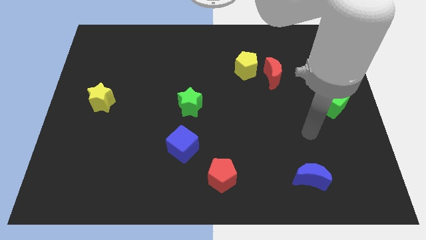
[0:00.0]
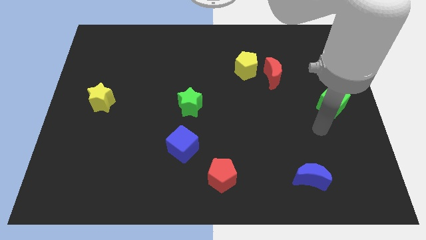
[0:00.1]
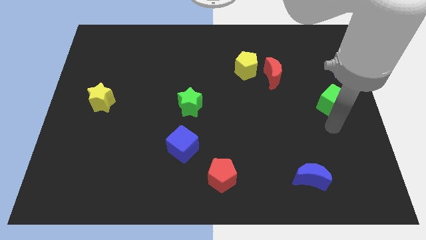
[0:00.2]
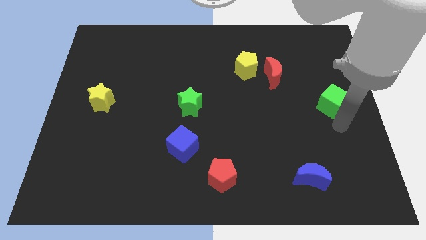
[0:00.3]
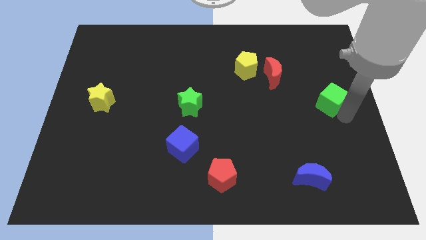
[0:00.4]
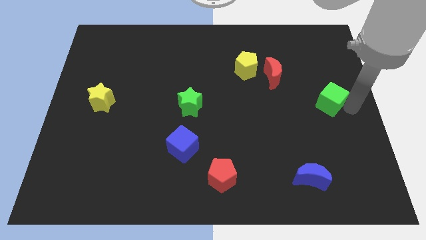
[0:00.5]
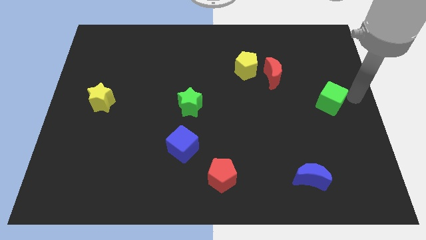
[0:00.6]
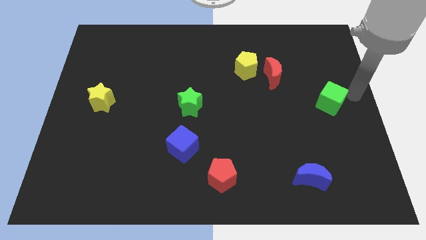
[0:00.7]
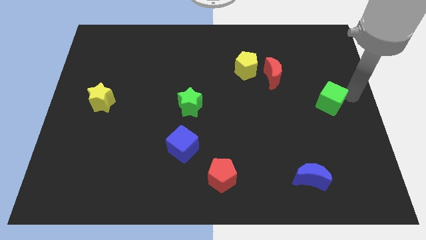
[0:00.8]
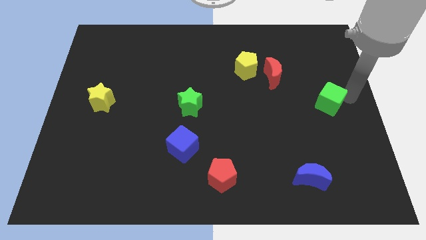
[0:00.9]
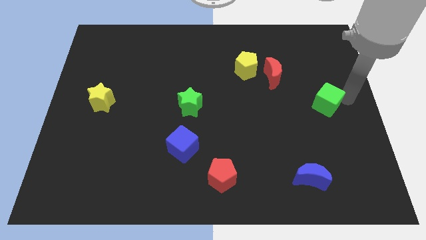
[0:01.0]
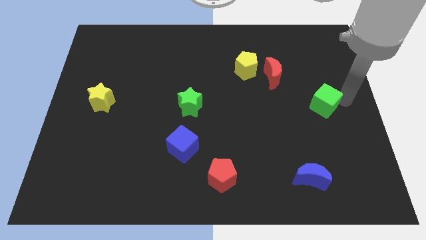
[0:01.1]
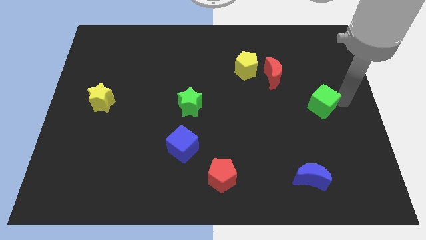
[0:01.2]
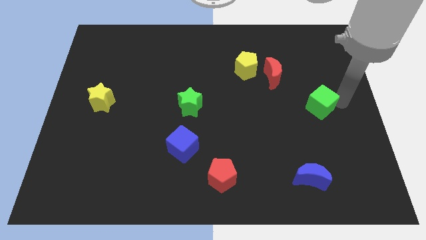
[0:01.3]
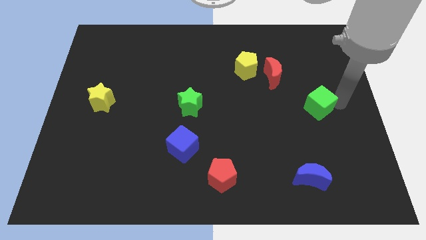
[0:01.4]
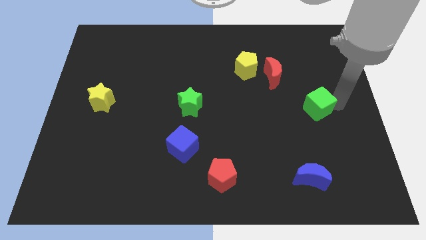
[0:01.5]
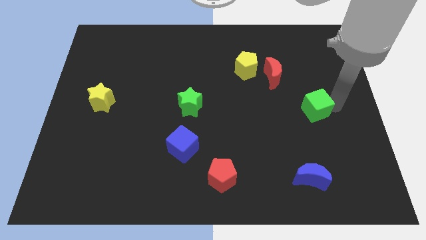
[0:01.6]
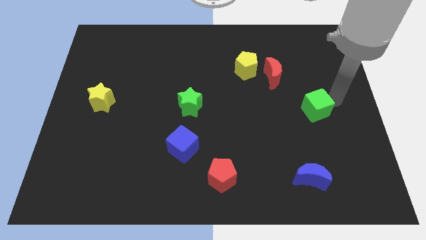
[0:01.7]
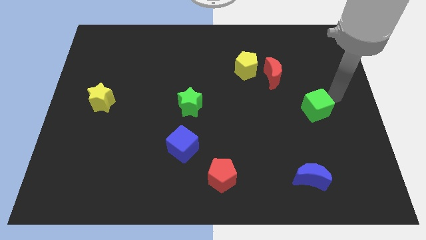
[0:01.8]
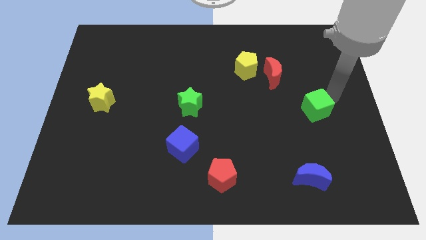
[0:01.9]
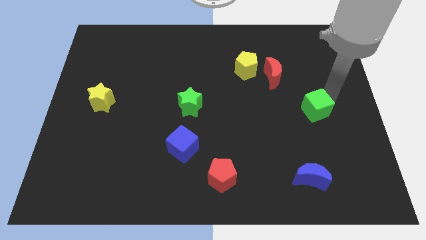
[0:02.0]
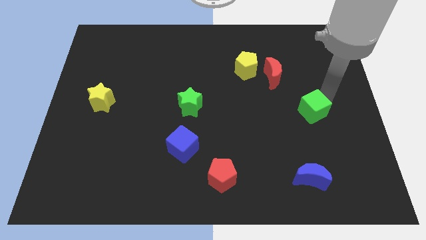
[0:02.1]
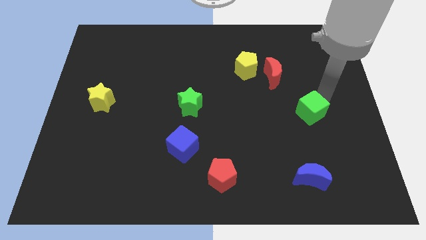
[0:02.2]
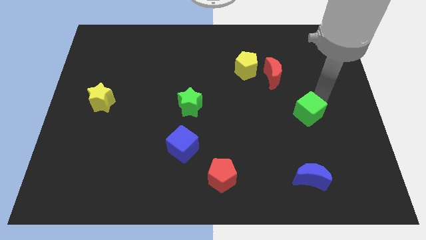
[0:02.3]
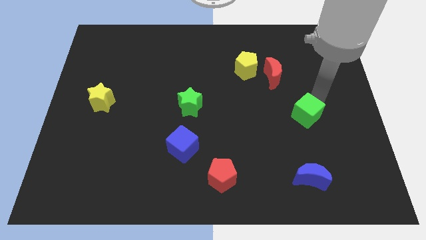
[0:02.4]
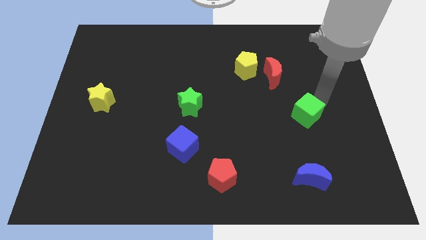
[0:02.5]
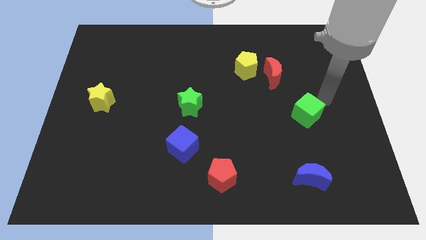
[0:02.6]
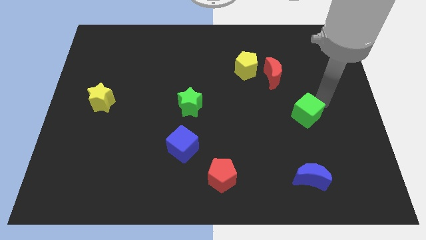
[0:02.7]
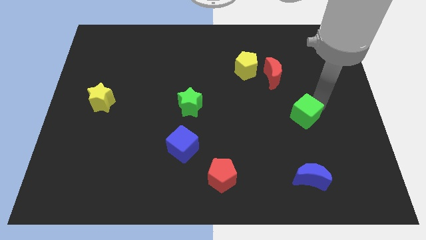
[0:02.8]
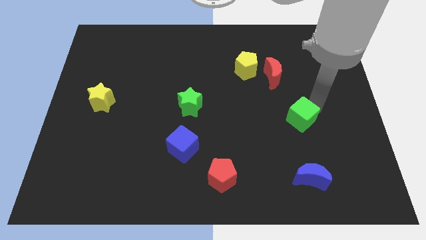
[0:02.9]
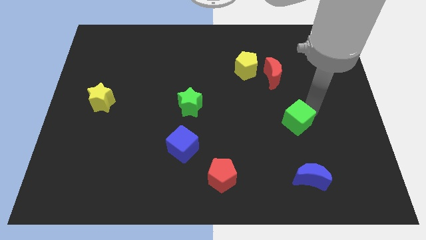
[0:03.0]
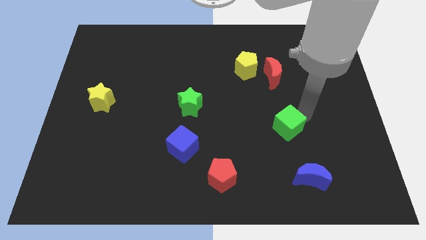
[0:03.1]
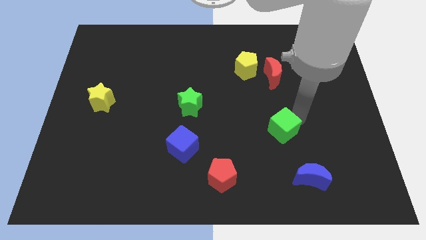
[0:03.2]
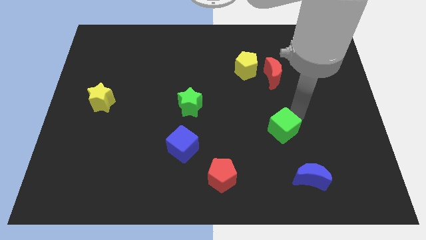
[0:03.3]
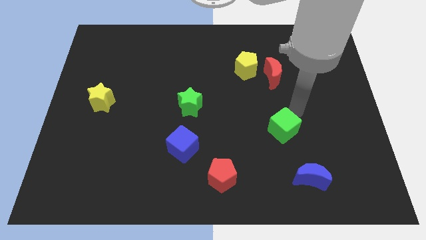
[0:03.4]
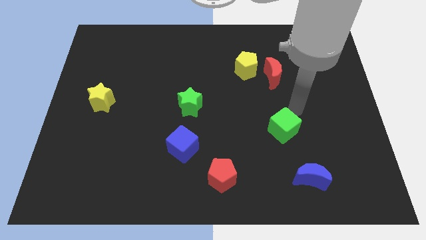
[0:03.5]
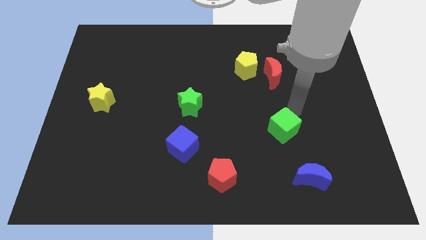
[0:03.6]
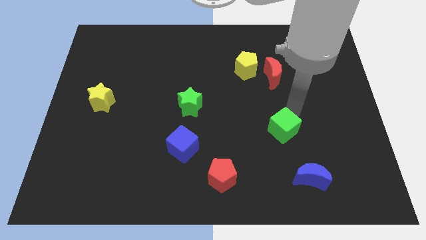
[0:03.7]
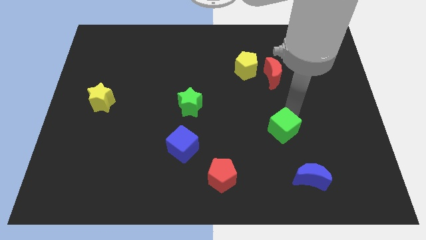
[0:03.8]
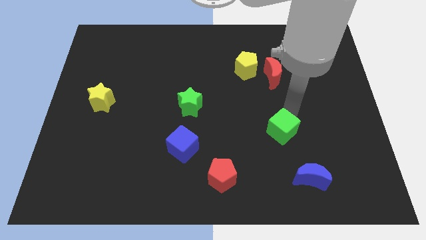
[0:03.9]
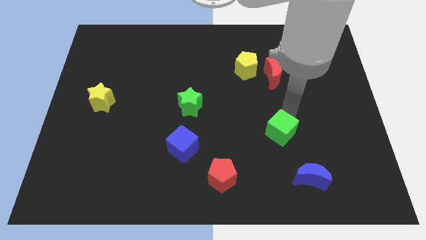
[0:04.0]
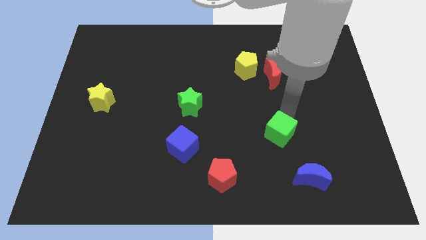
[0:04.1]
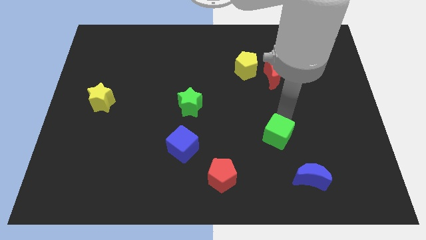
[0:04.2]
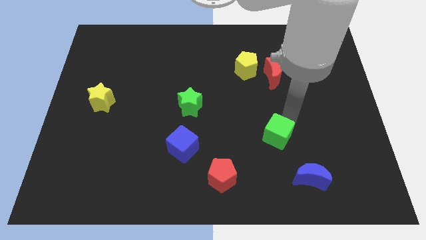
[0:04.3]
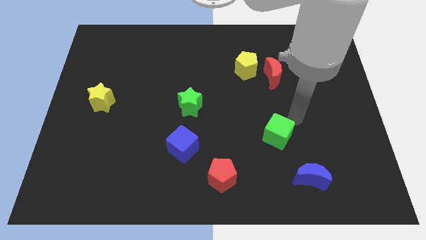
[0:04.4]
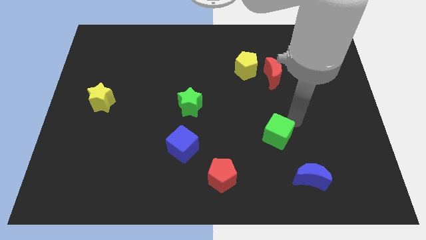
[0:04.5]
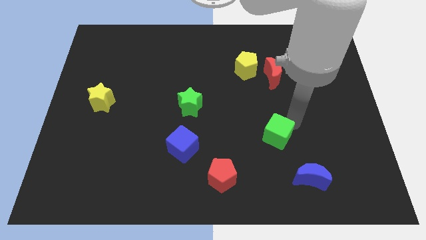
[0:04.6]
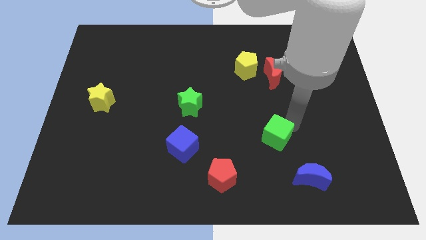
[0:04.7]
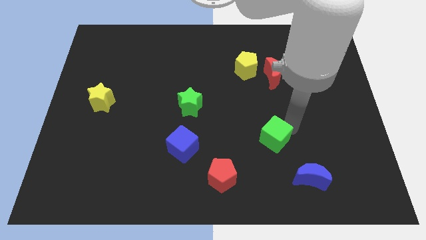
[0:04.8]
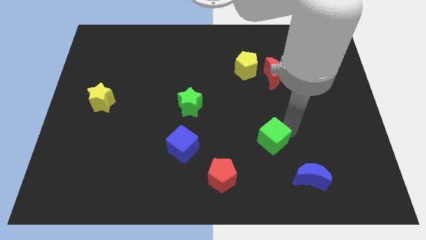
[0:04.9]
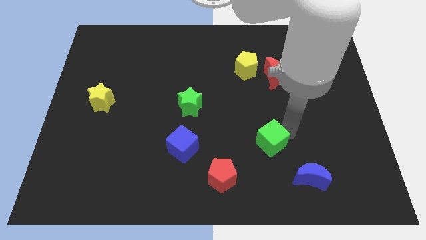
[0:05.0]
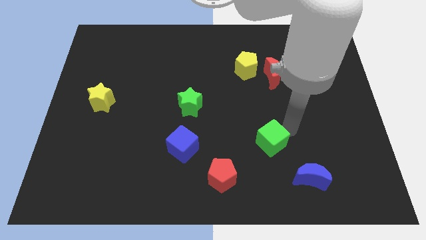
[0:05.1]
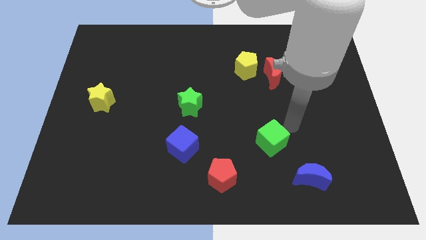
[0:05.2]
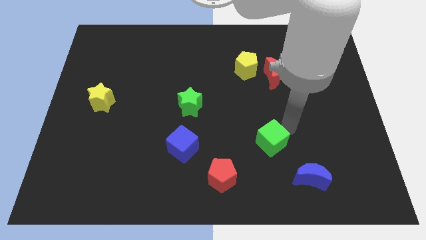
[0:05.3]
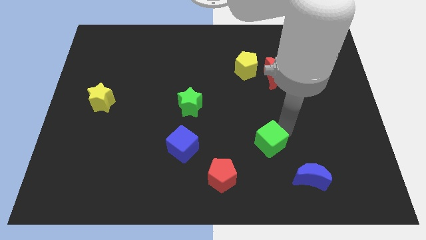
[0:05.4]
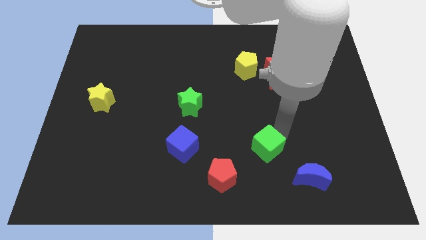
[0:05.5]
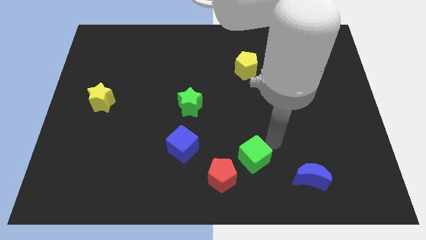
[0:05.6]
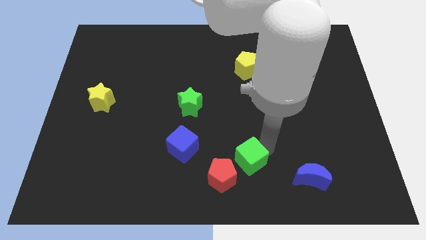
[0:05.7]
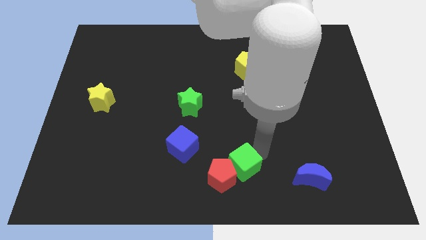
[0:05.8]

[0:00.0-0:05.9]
push the green cube towards the red pentagon

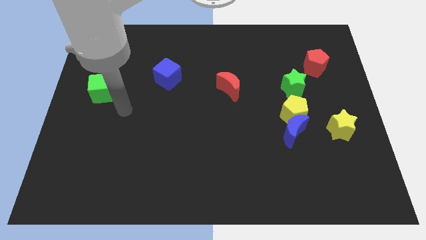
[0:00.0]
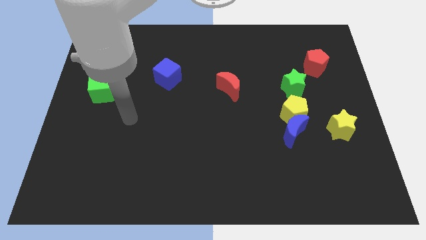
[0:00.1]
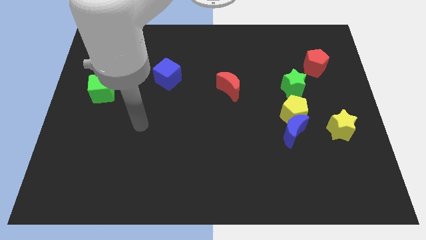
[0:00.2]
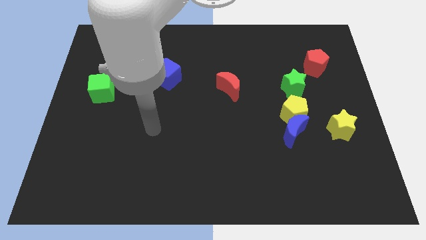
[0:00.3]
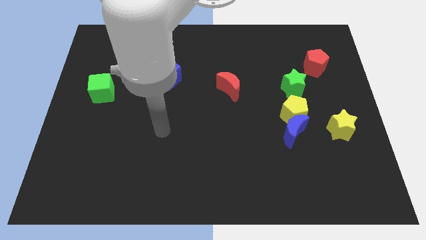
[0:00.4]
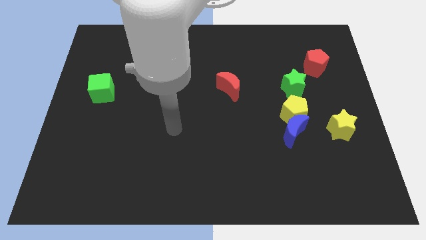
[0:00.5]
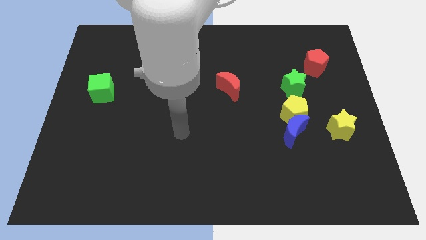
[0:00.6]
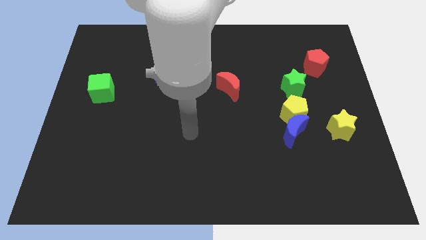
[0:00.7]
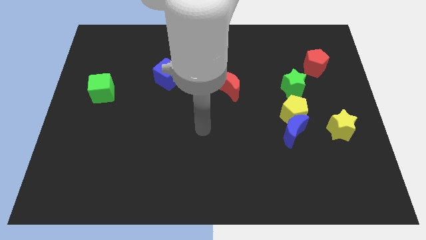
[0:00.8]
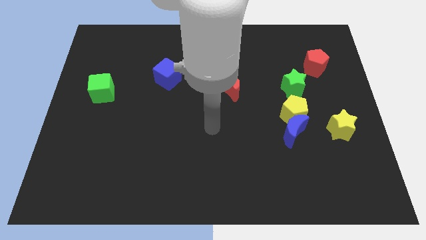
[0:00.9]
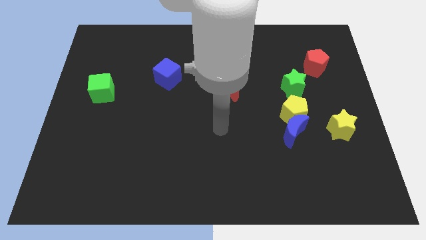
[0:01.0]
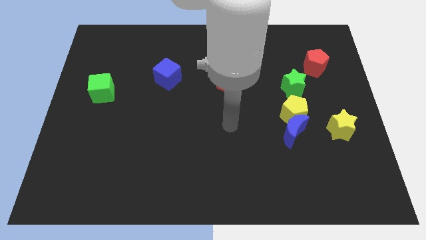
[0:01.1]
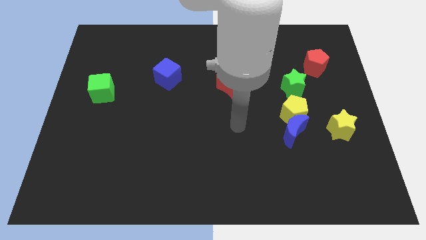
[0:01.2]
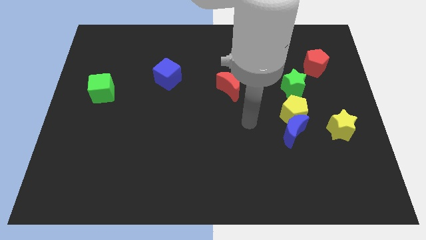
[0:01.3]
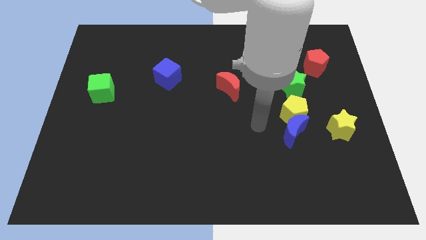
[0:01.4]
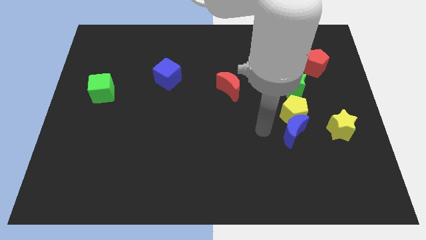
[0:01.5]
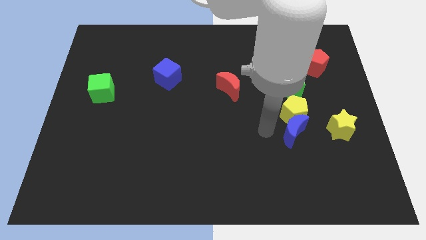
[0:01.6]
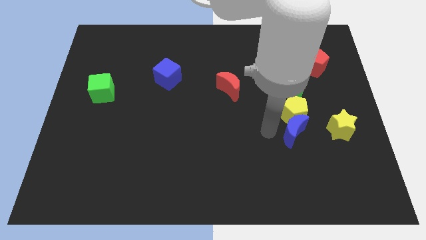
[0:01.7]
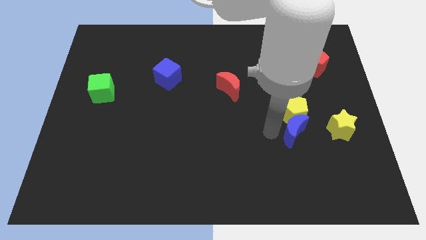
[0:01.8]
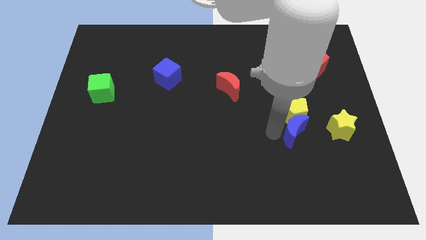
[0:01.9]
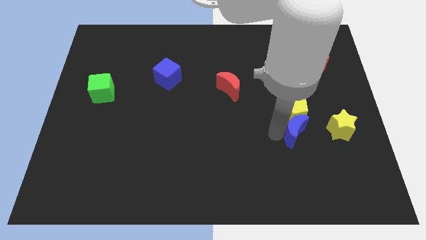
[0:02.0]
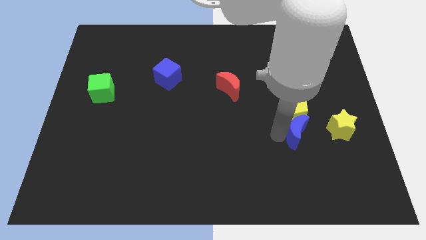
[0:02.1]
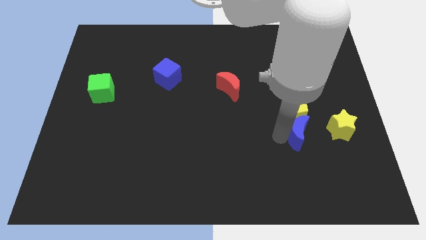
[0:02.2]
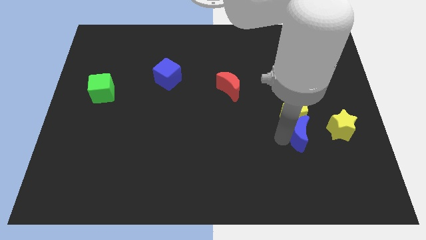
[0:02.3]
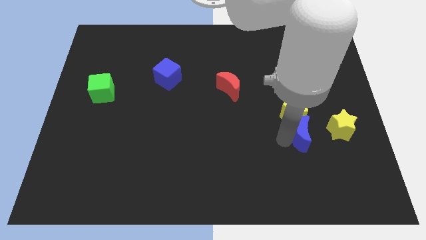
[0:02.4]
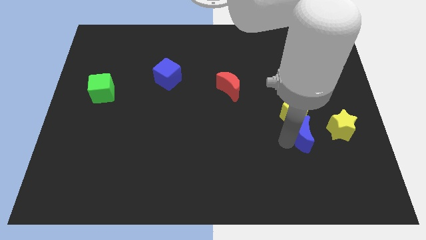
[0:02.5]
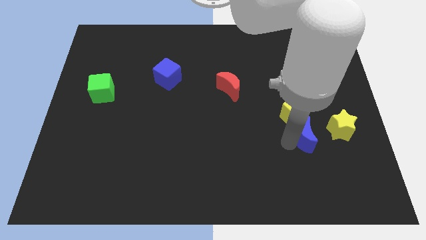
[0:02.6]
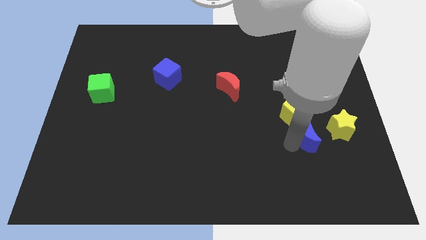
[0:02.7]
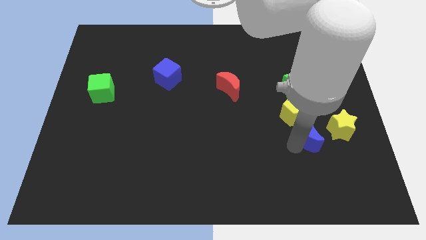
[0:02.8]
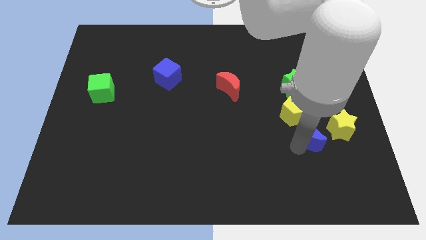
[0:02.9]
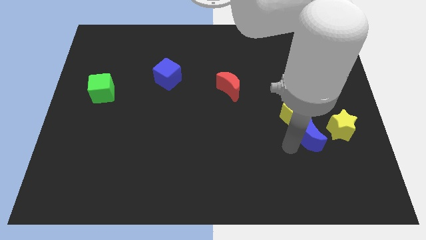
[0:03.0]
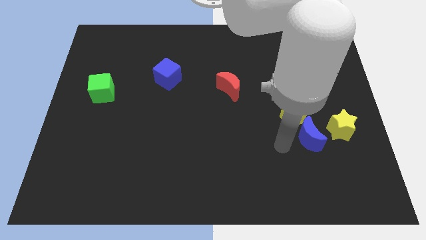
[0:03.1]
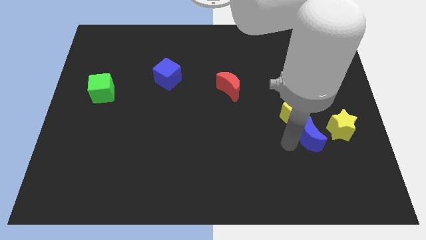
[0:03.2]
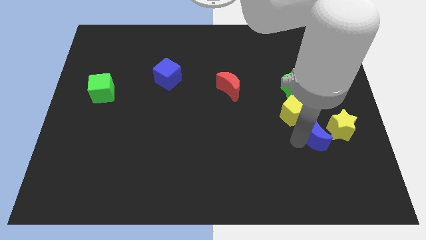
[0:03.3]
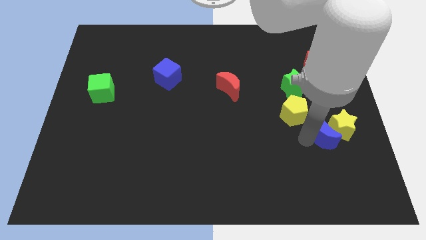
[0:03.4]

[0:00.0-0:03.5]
slide the blue moon to the yellow star
